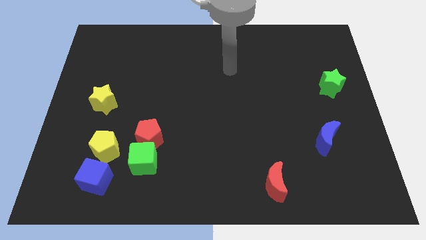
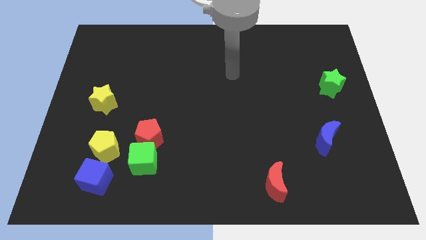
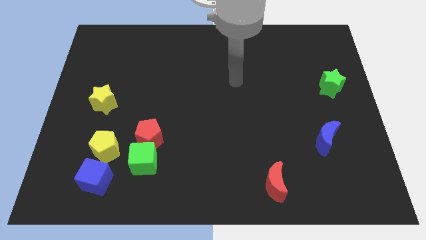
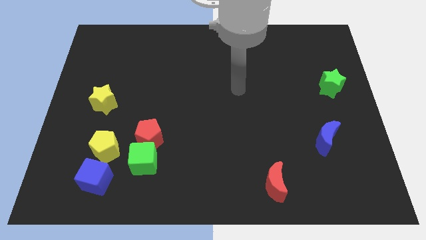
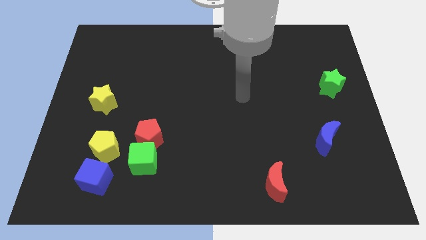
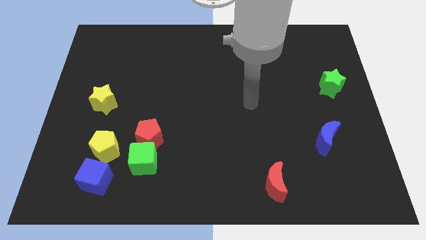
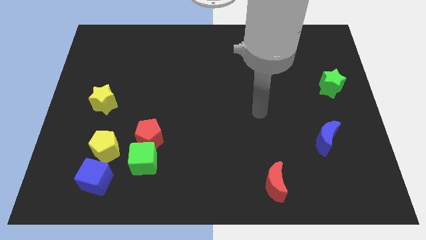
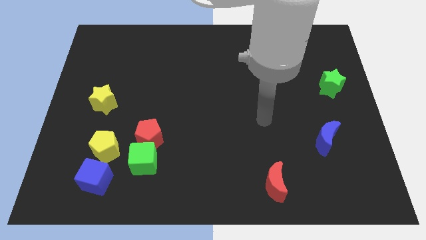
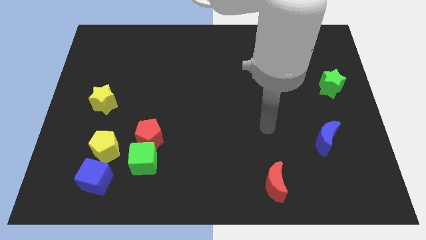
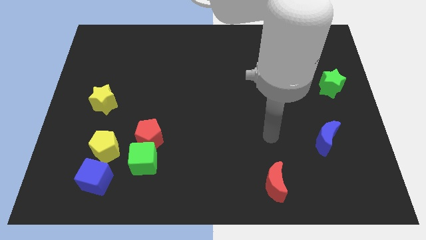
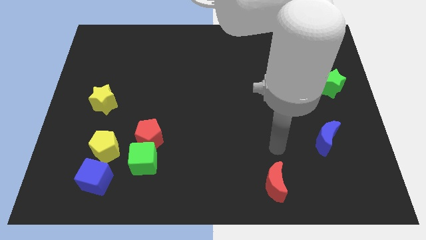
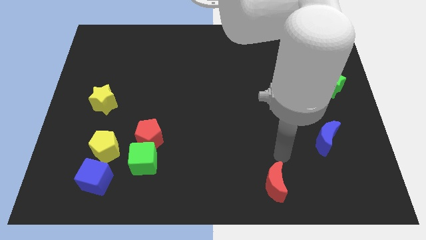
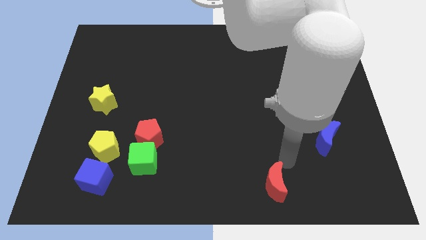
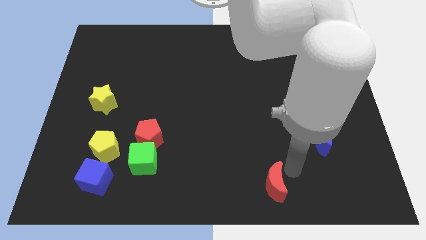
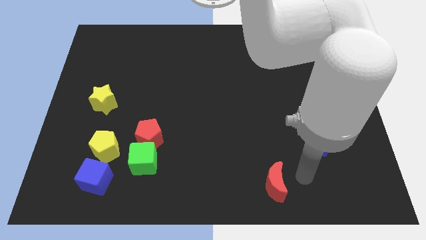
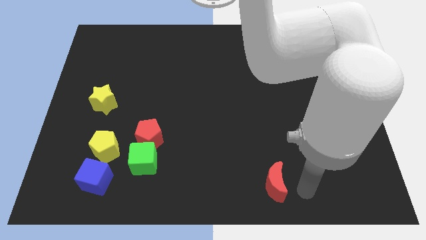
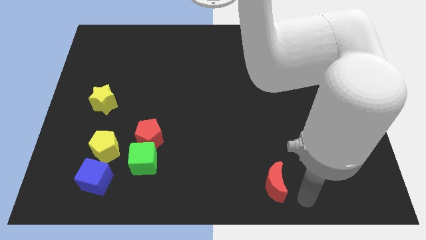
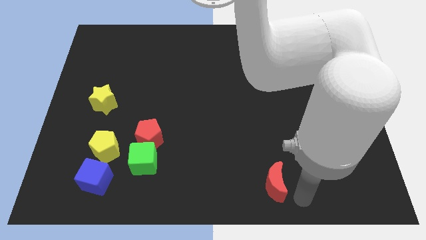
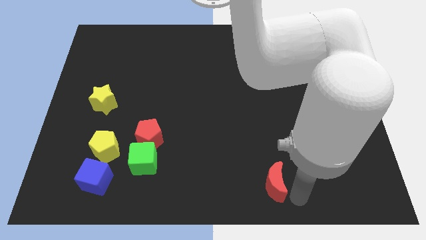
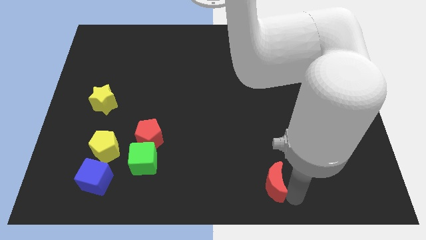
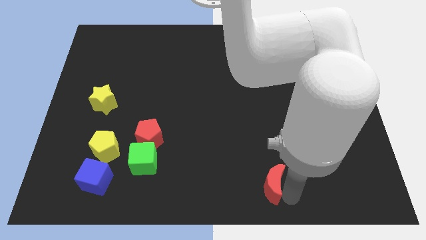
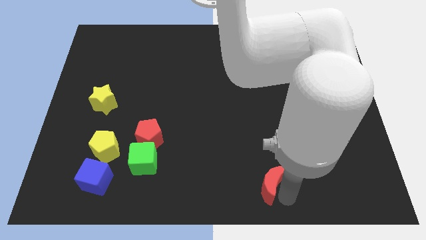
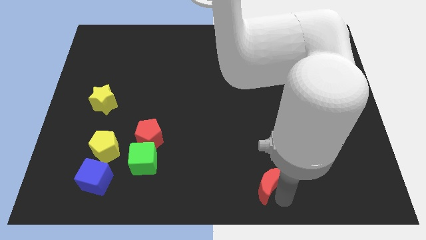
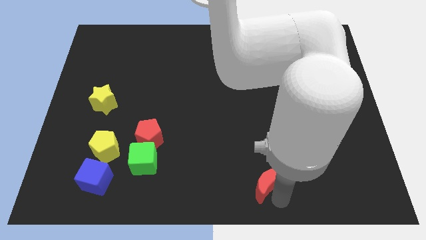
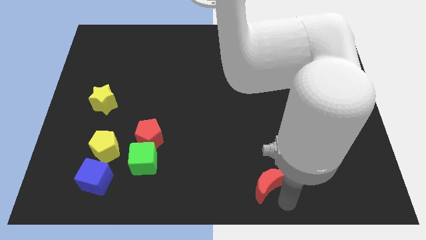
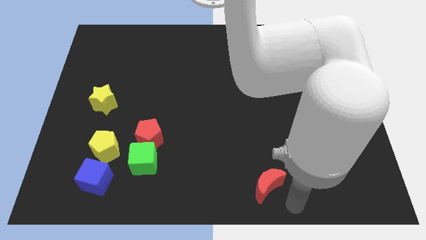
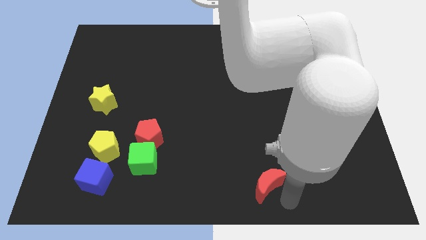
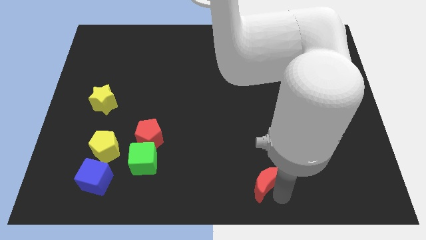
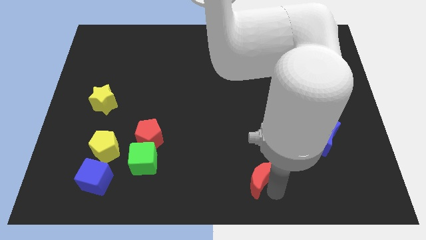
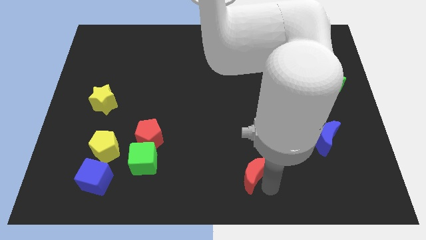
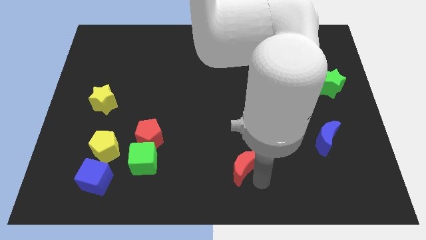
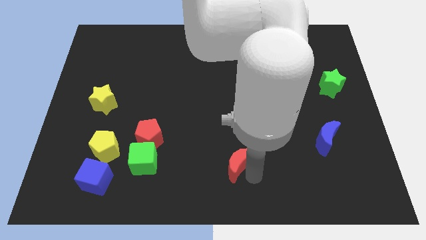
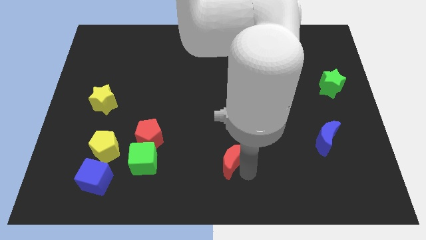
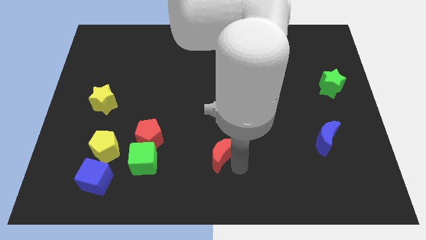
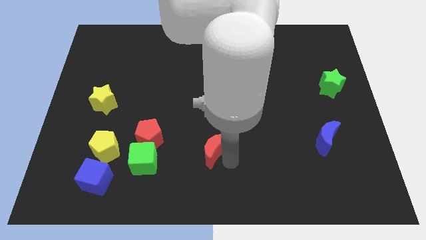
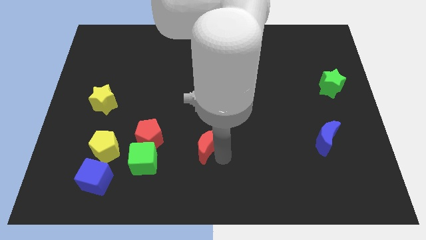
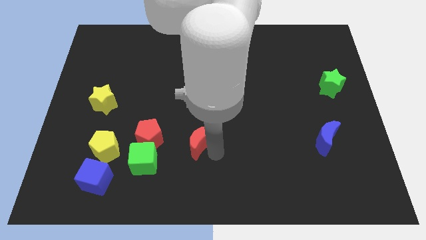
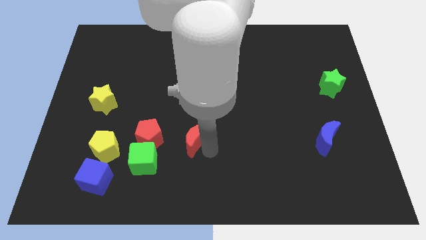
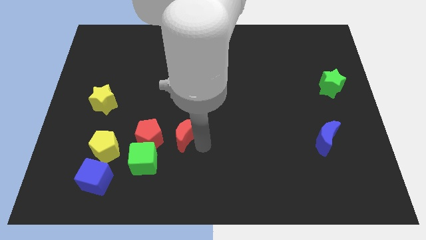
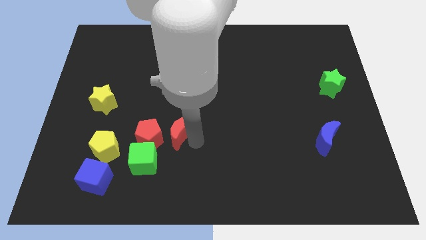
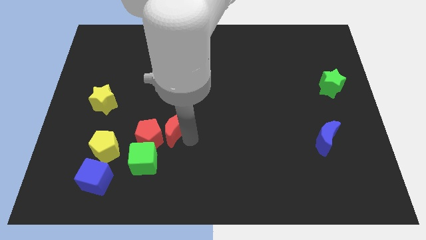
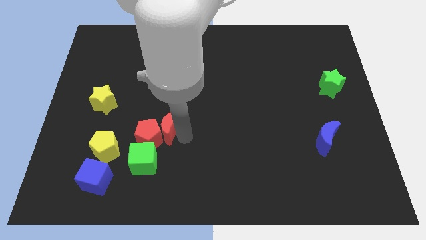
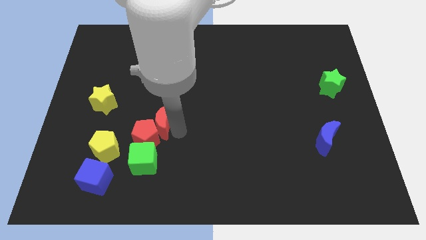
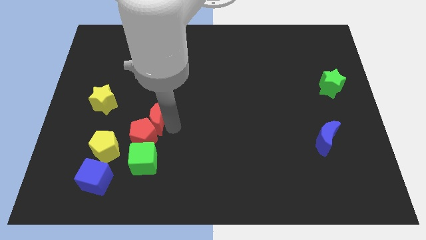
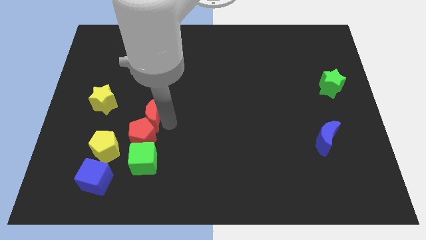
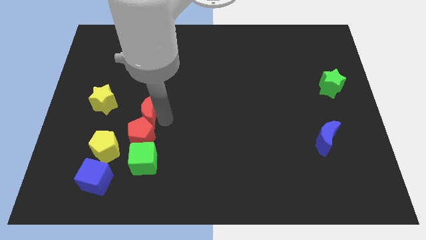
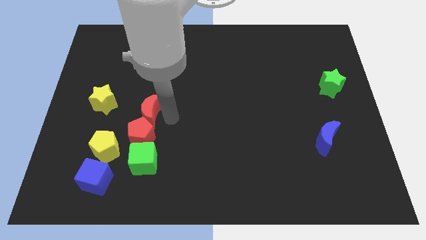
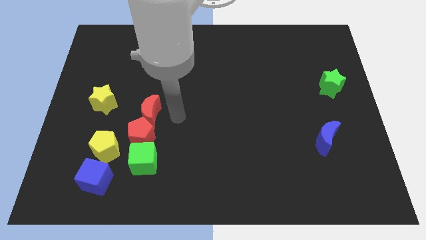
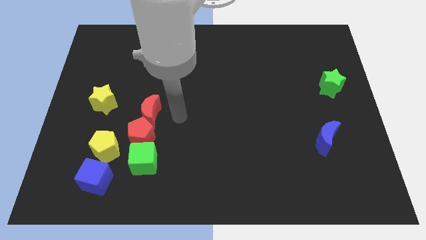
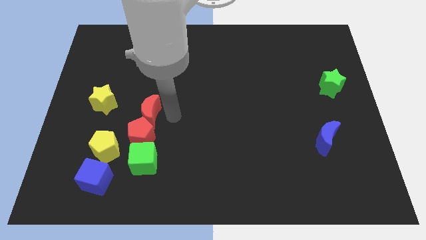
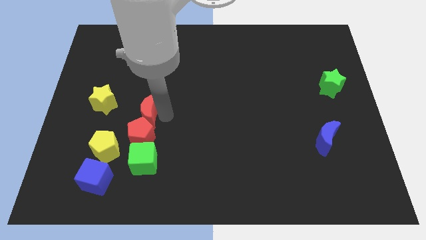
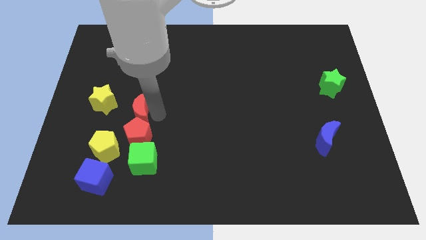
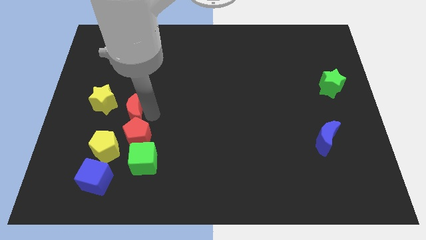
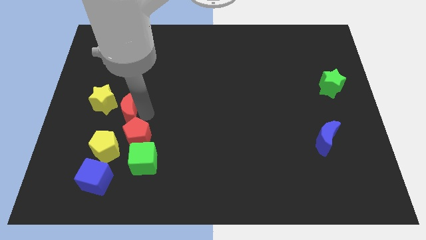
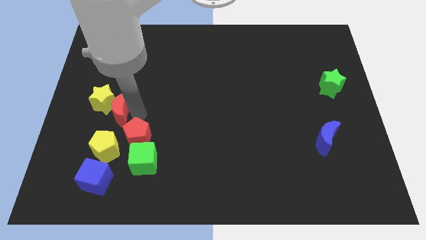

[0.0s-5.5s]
put the red moon to the yellow star

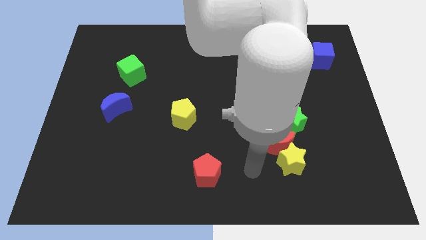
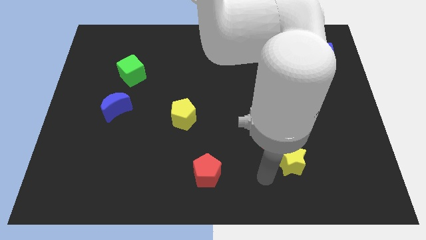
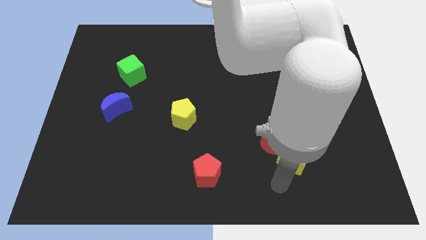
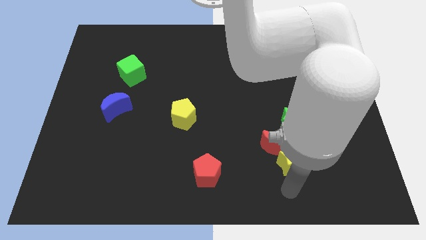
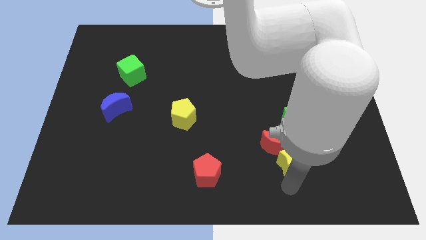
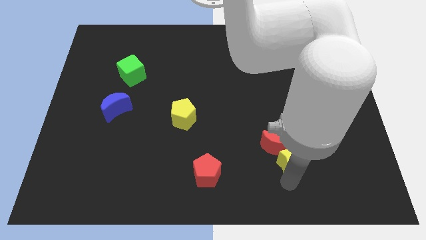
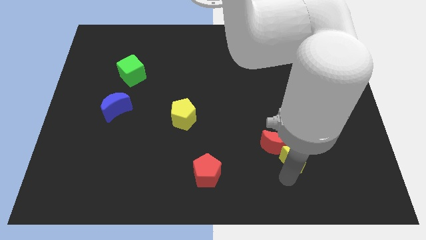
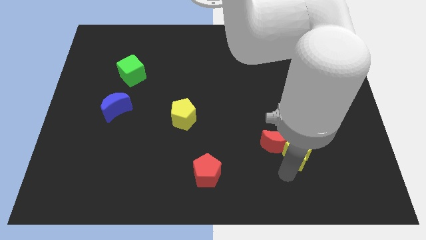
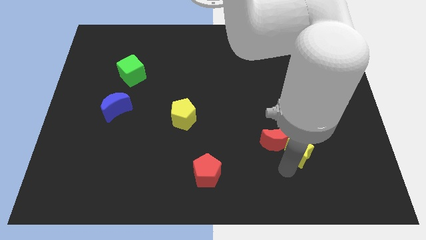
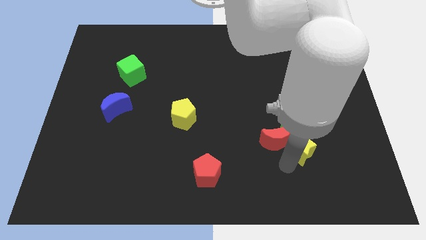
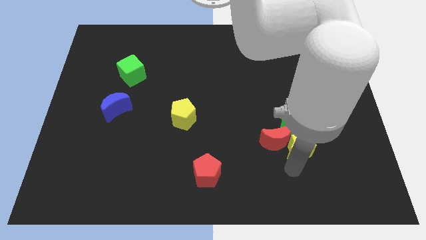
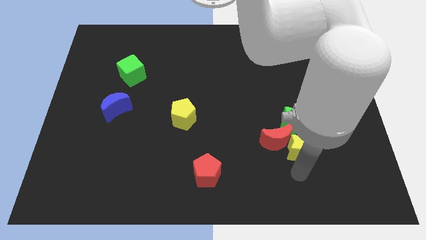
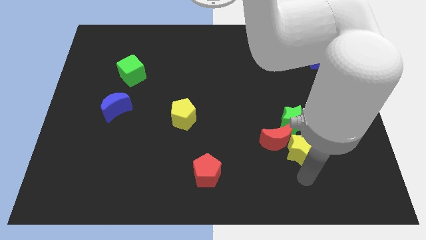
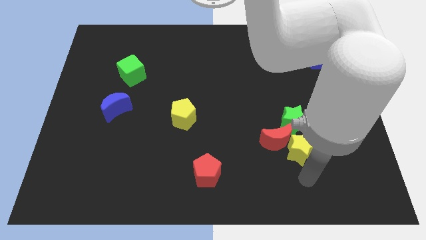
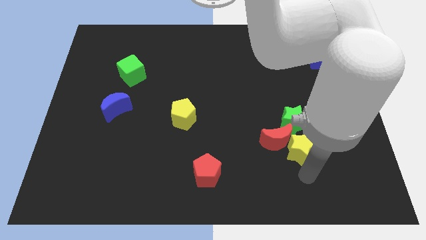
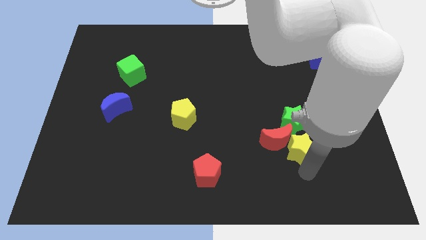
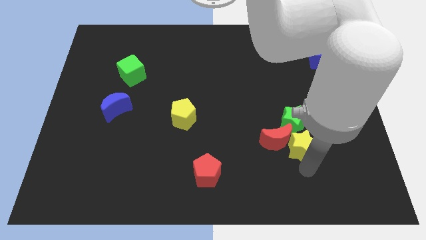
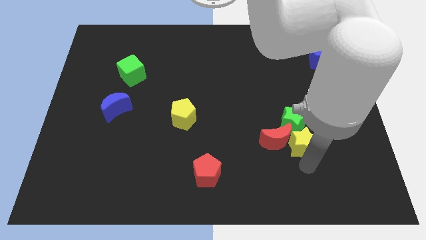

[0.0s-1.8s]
push the yellow star close to the green star
